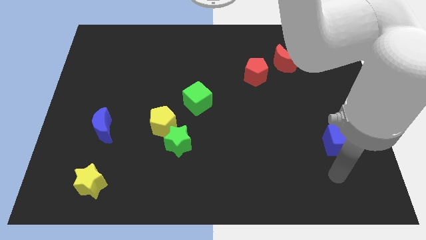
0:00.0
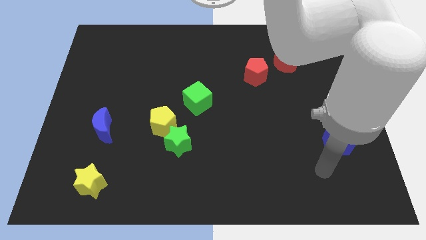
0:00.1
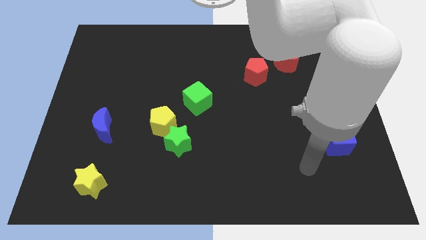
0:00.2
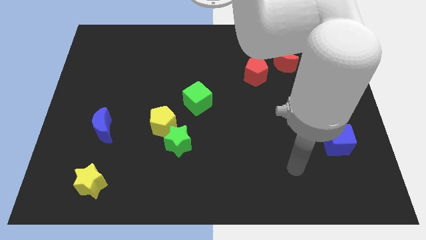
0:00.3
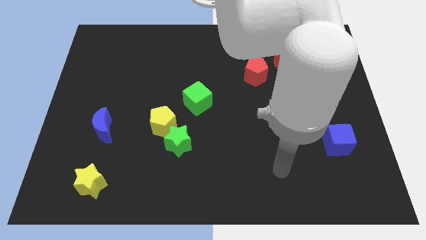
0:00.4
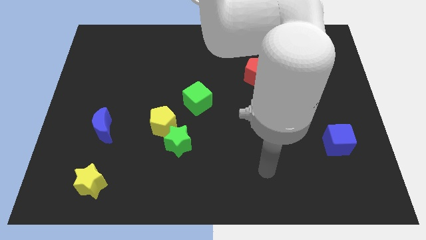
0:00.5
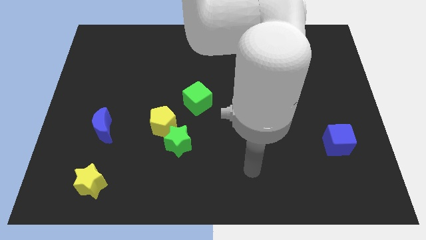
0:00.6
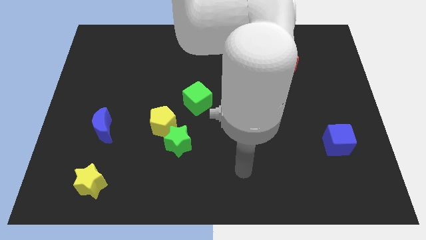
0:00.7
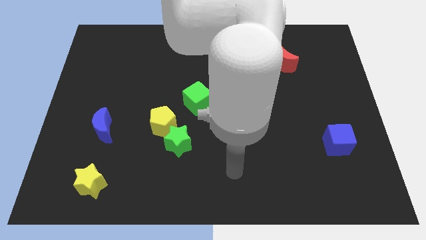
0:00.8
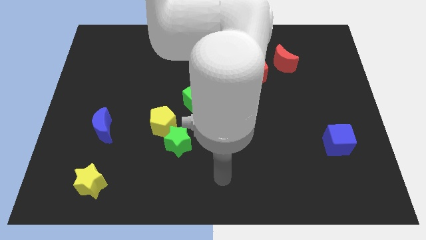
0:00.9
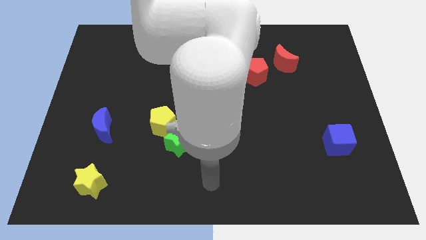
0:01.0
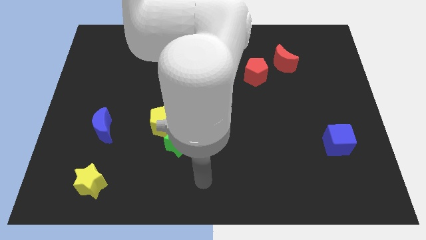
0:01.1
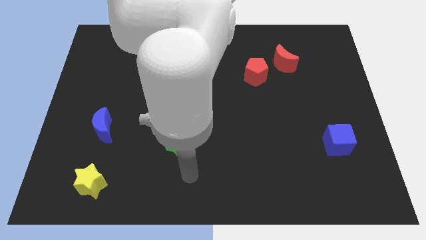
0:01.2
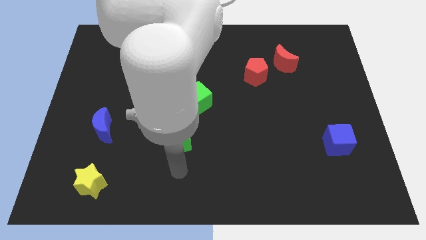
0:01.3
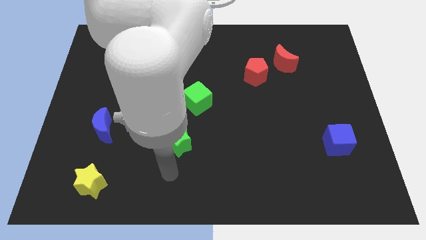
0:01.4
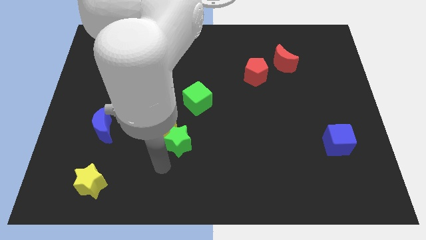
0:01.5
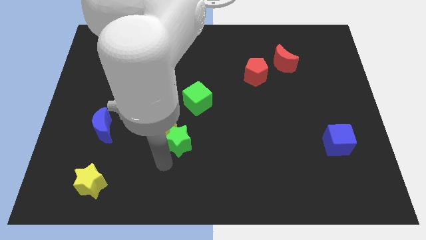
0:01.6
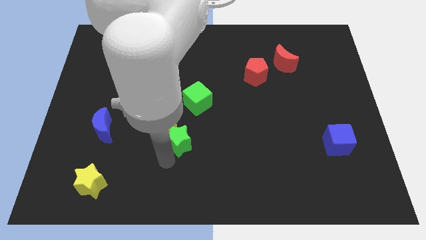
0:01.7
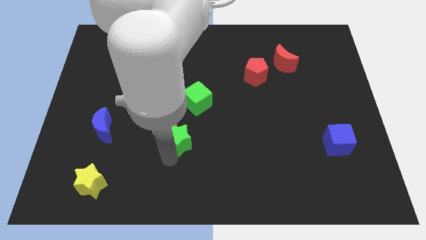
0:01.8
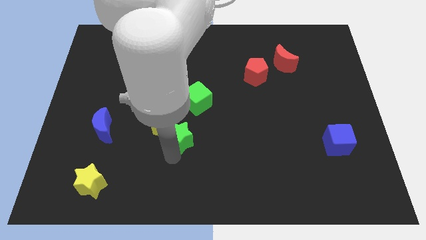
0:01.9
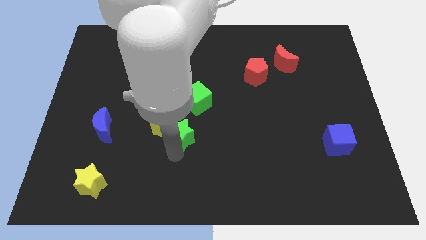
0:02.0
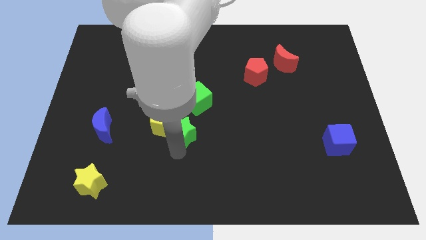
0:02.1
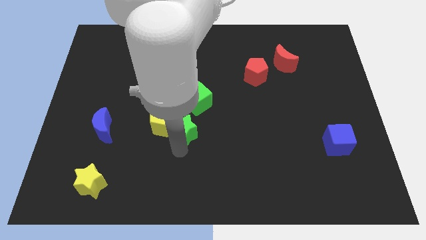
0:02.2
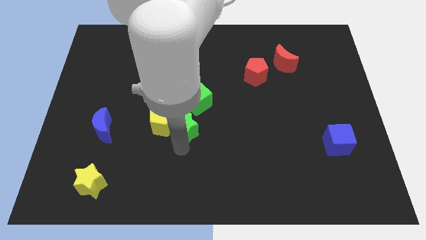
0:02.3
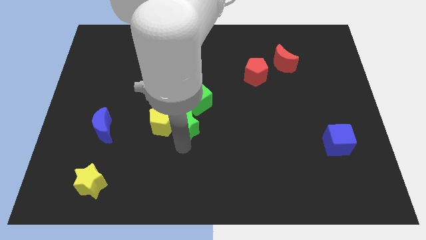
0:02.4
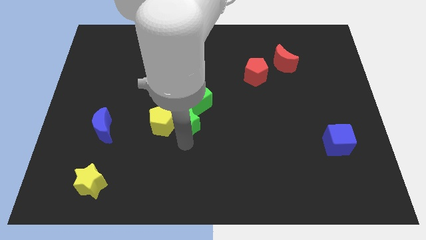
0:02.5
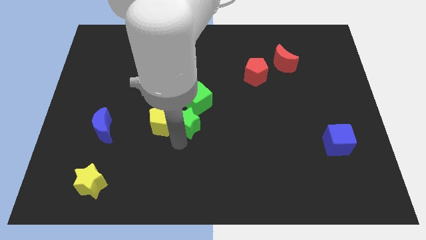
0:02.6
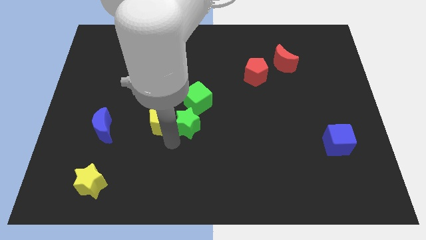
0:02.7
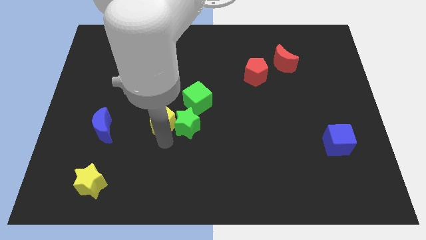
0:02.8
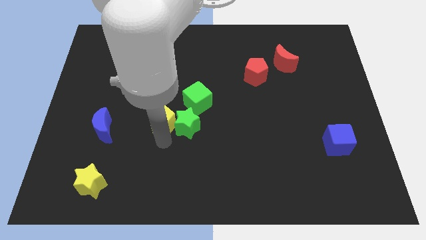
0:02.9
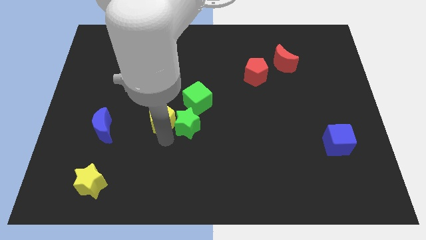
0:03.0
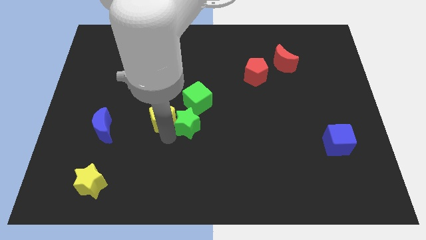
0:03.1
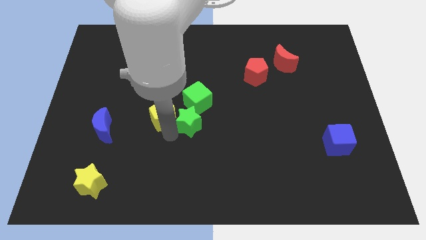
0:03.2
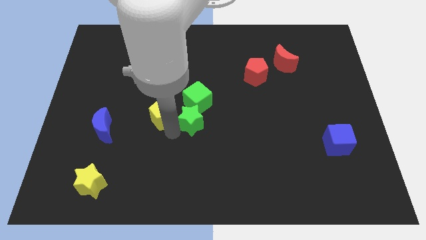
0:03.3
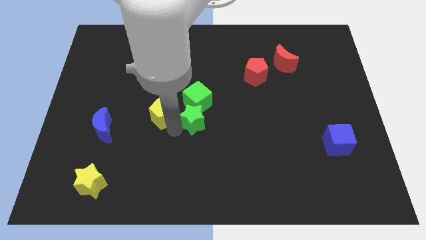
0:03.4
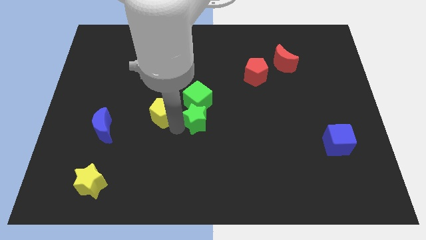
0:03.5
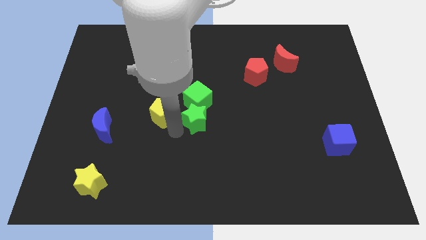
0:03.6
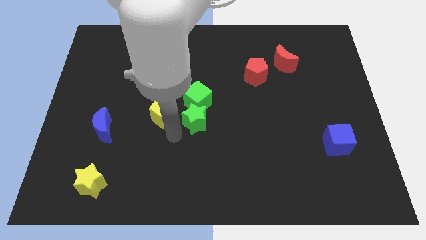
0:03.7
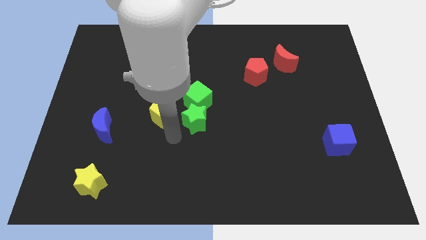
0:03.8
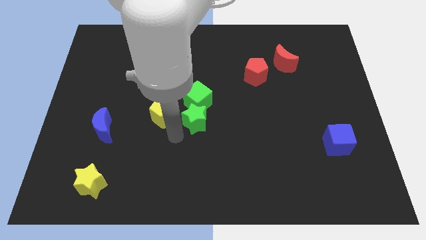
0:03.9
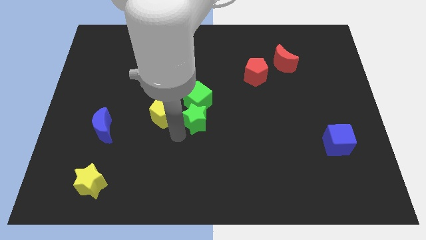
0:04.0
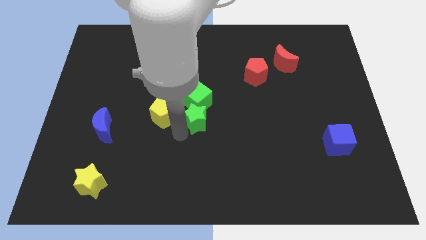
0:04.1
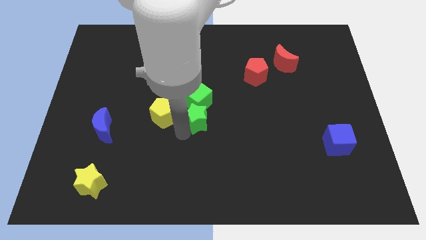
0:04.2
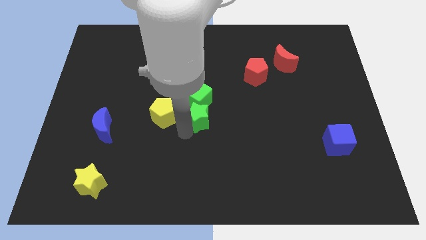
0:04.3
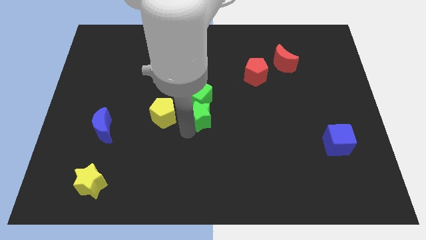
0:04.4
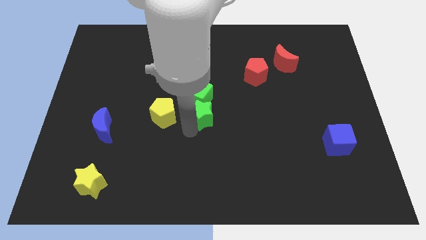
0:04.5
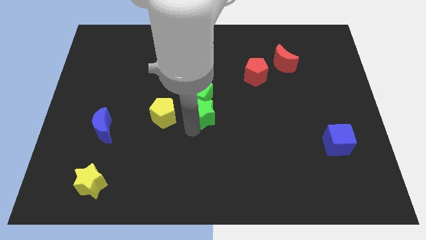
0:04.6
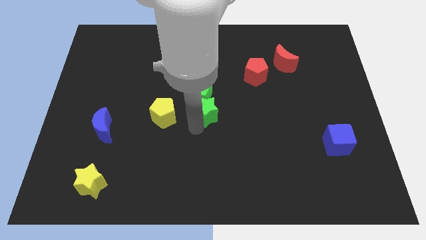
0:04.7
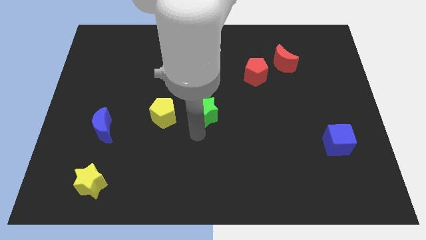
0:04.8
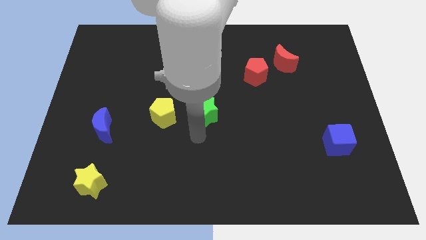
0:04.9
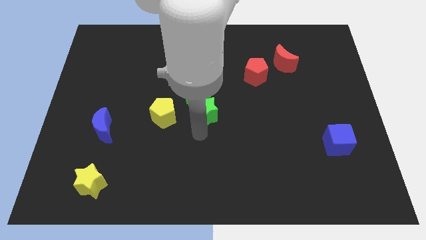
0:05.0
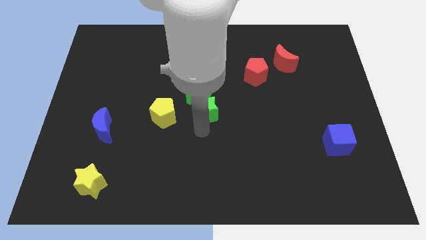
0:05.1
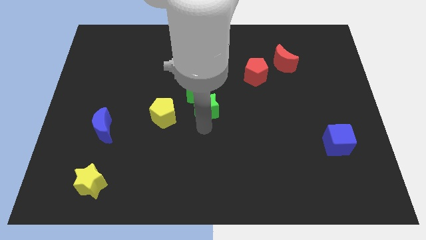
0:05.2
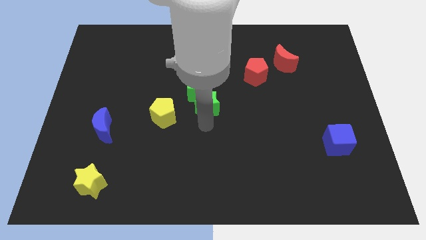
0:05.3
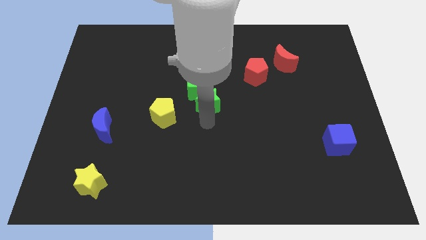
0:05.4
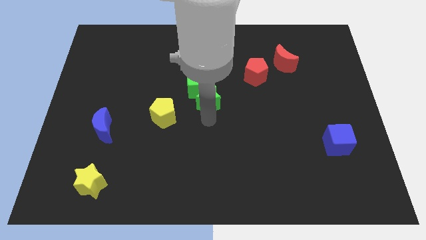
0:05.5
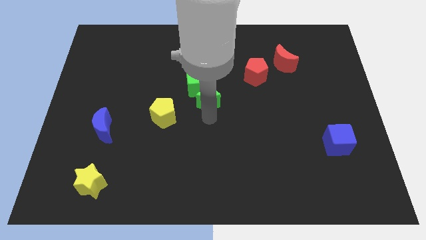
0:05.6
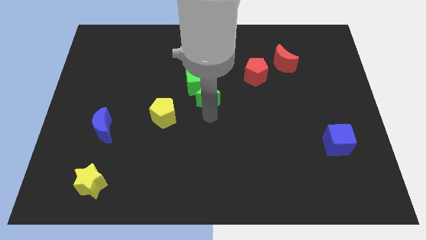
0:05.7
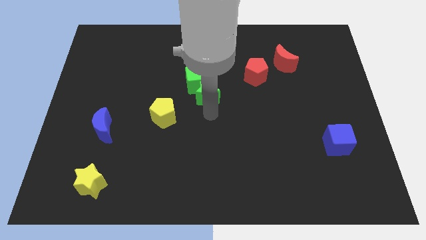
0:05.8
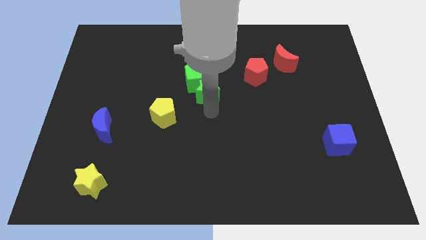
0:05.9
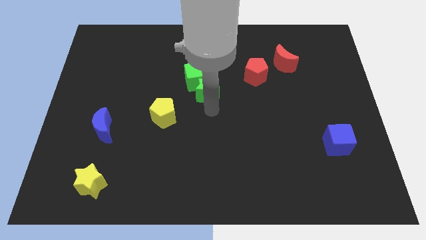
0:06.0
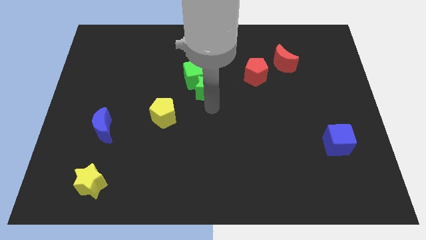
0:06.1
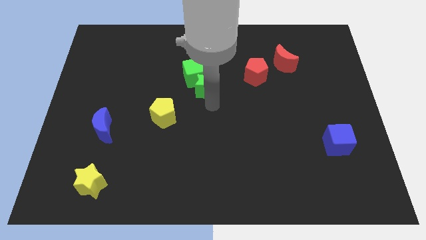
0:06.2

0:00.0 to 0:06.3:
move the green star to the left side of the red pentagon

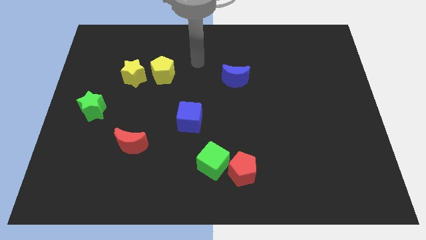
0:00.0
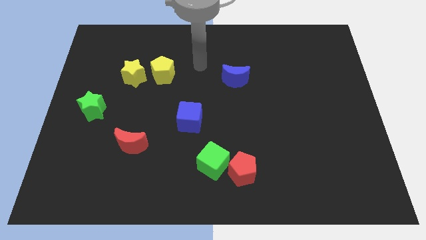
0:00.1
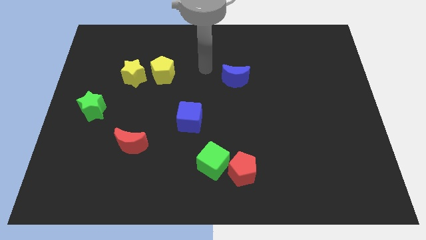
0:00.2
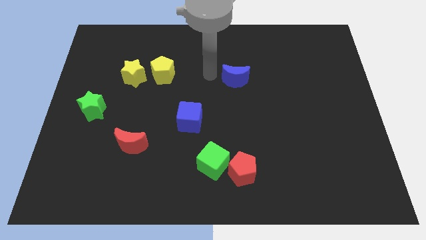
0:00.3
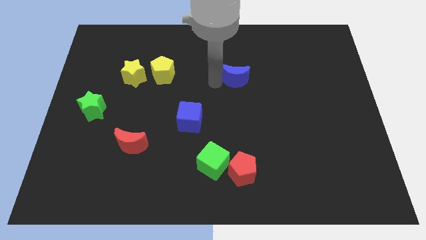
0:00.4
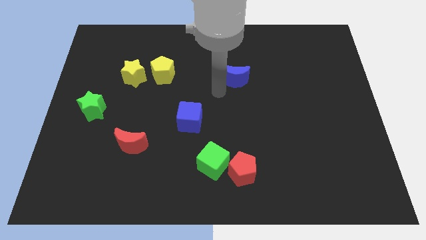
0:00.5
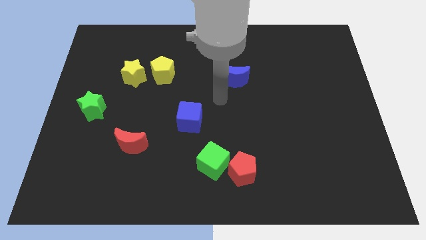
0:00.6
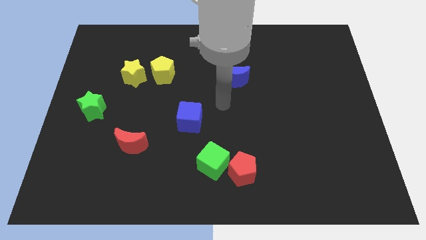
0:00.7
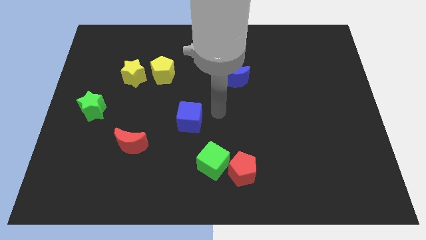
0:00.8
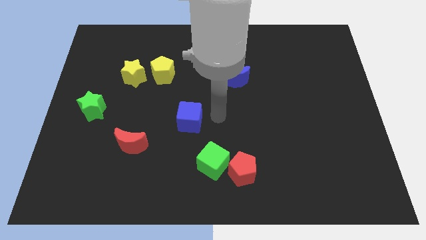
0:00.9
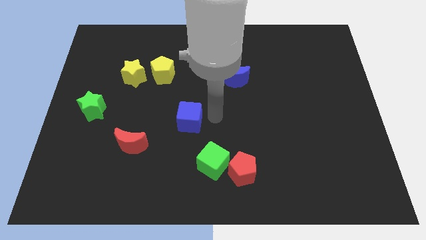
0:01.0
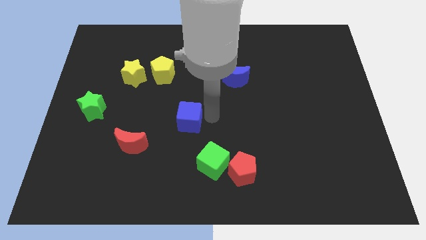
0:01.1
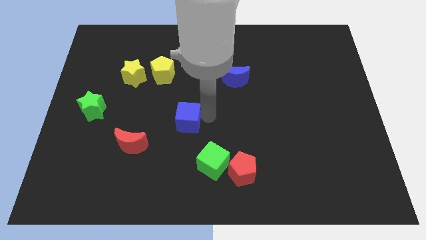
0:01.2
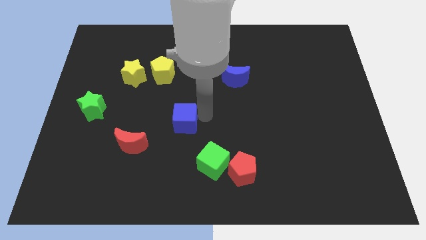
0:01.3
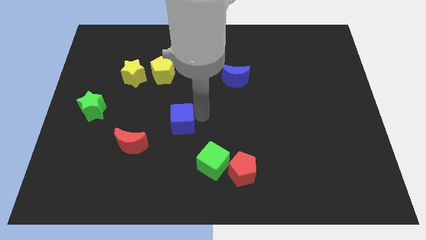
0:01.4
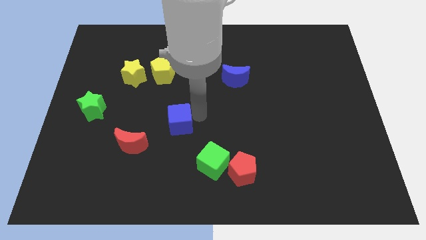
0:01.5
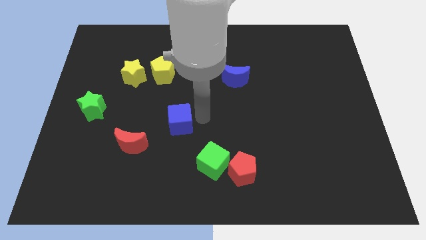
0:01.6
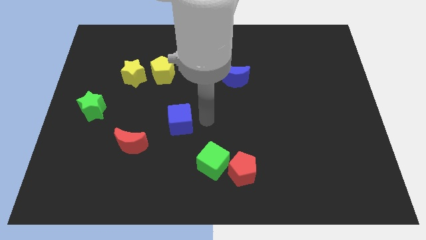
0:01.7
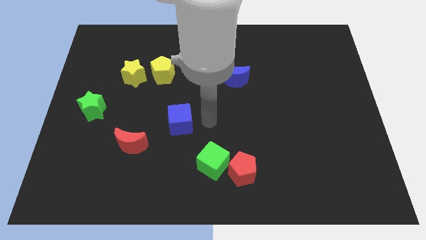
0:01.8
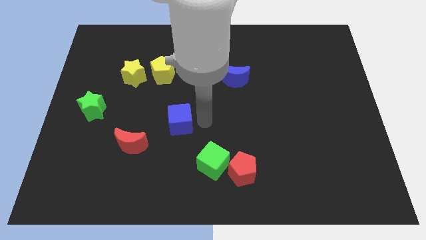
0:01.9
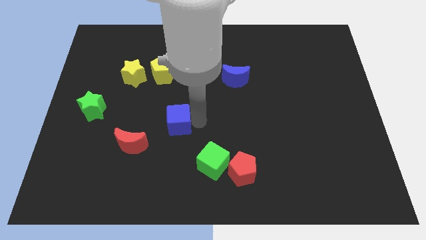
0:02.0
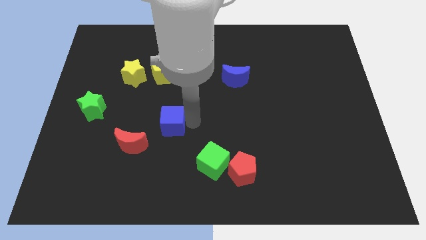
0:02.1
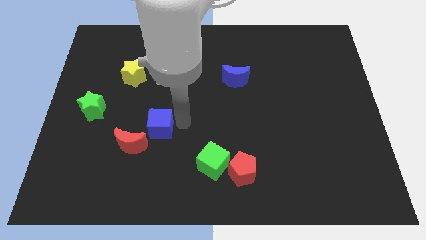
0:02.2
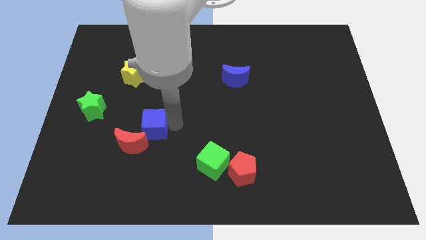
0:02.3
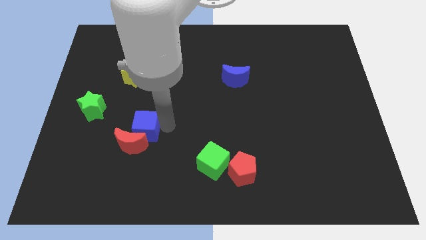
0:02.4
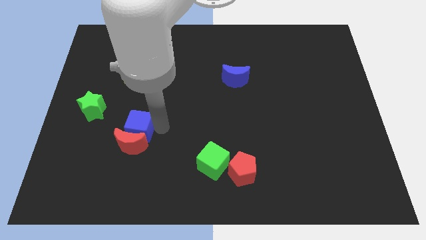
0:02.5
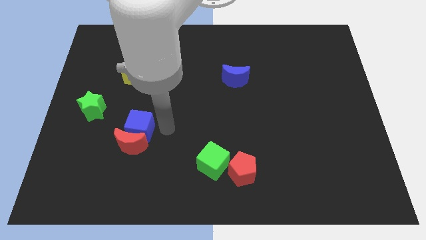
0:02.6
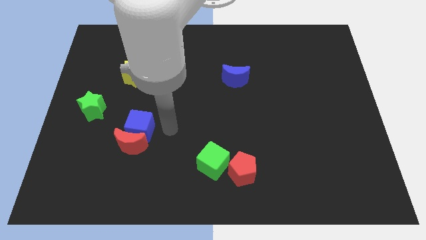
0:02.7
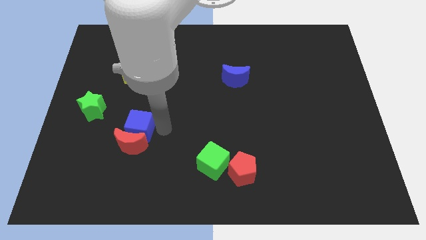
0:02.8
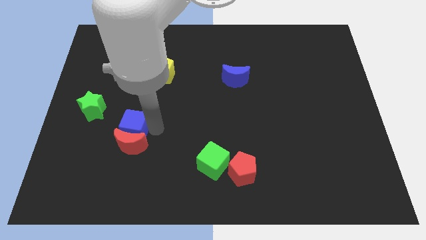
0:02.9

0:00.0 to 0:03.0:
push the blue cube to the bottom right of the green star
